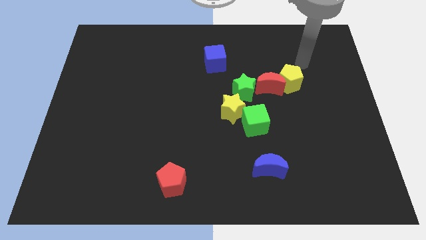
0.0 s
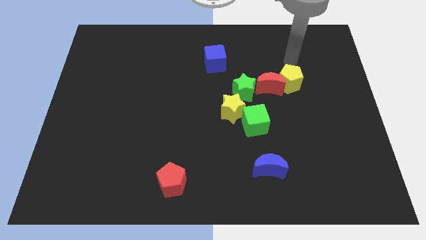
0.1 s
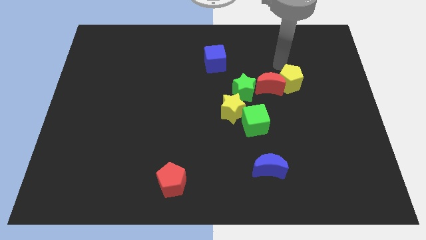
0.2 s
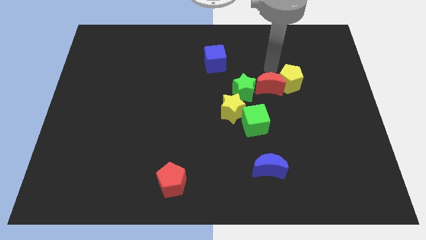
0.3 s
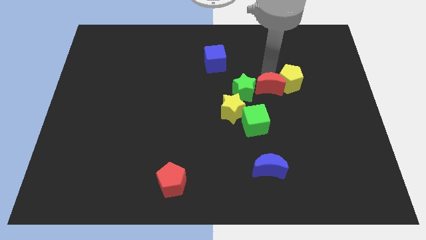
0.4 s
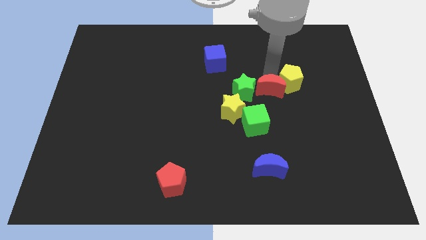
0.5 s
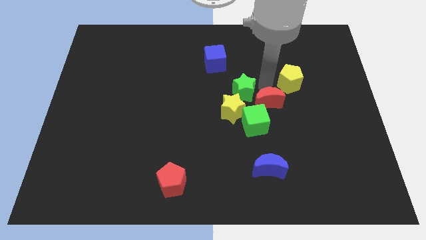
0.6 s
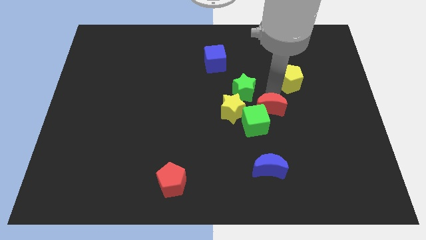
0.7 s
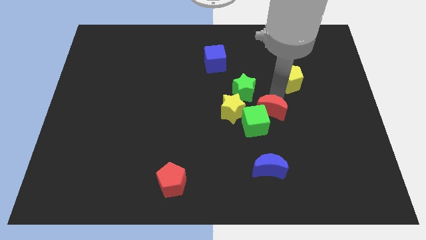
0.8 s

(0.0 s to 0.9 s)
move the yellow pentagon away from the red moon

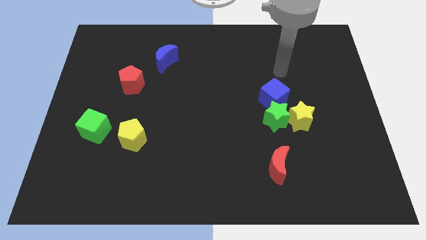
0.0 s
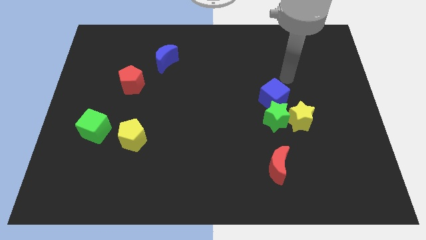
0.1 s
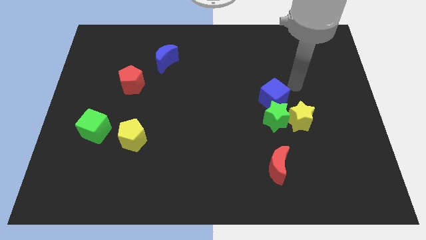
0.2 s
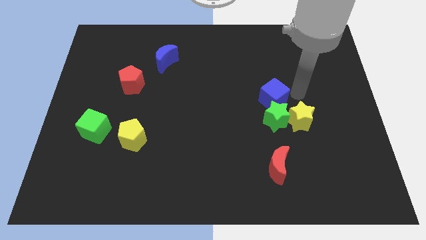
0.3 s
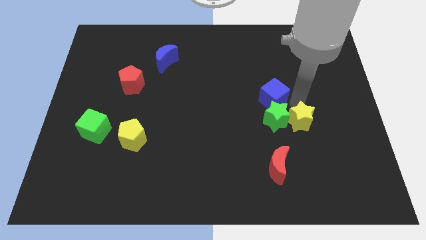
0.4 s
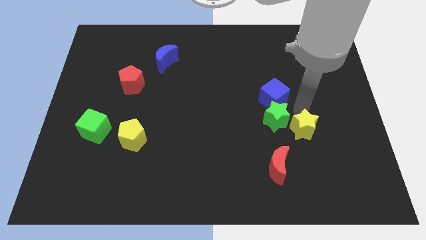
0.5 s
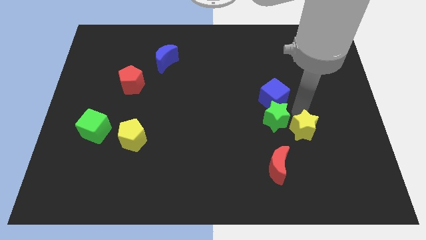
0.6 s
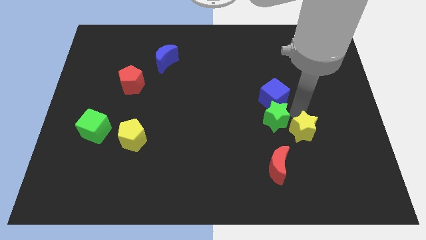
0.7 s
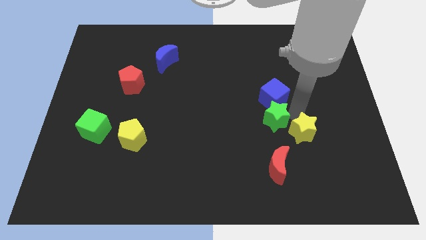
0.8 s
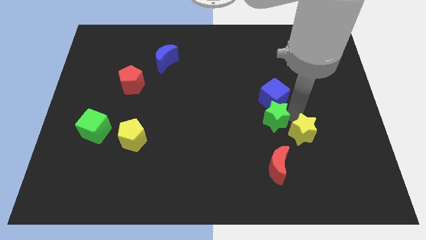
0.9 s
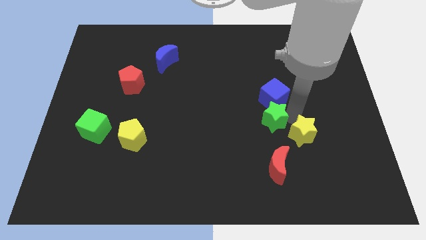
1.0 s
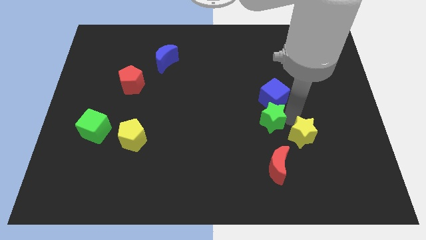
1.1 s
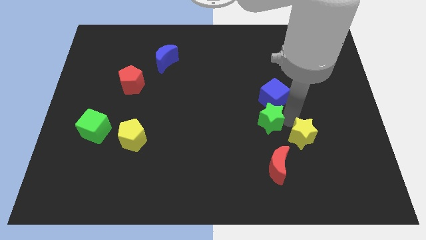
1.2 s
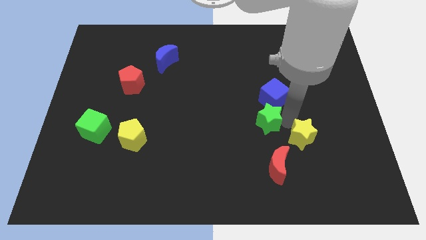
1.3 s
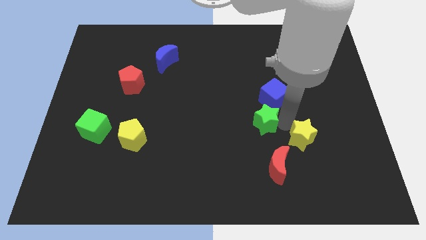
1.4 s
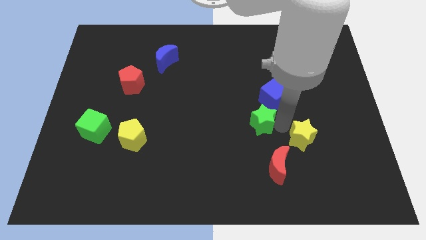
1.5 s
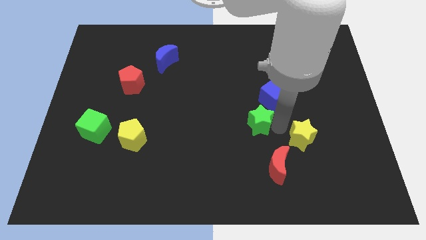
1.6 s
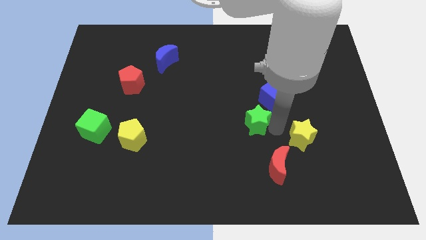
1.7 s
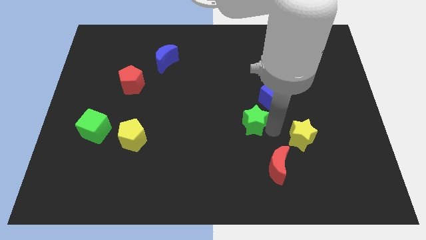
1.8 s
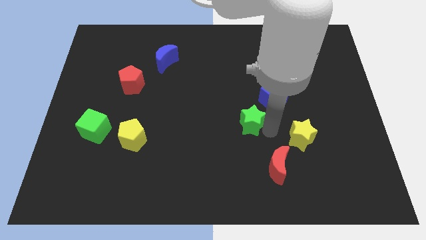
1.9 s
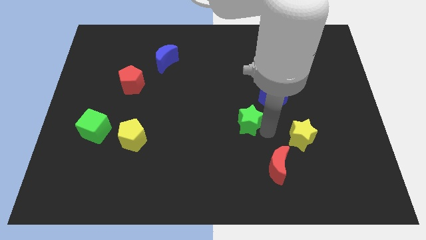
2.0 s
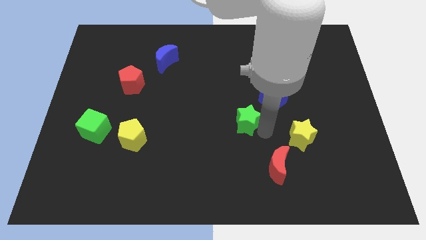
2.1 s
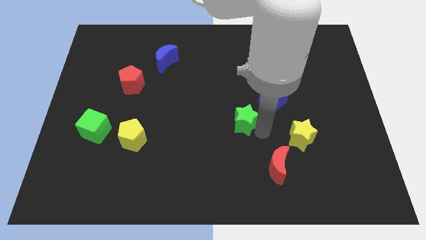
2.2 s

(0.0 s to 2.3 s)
pull the green star apart from the yellow star and blue cube

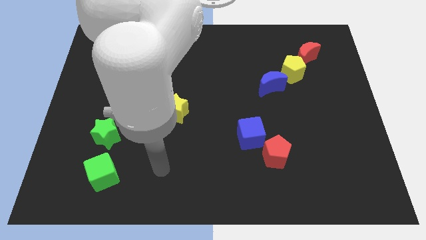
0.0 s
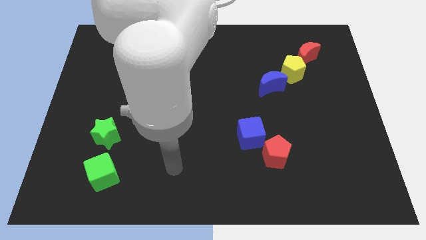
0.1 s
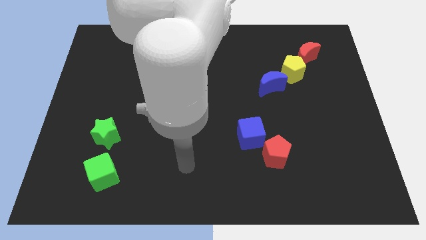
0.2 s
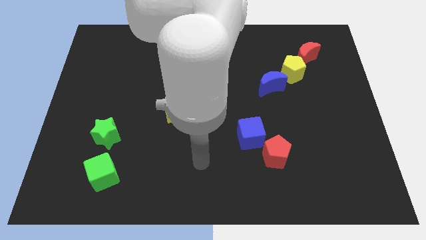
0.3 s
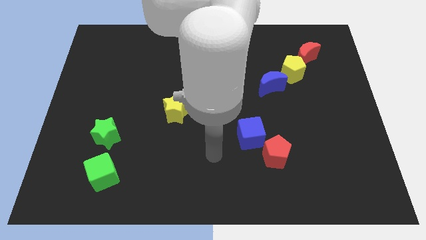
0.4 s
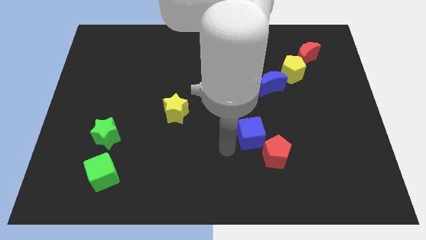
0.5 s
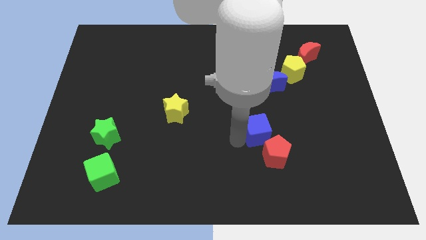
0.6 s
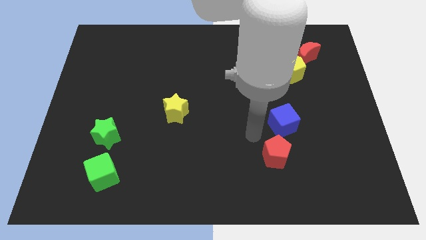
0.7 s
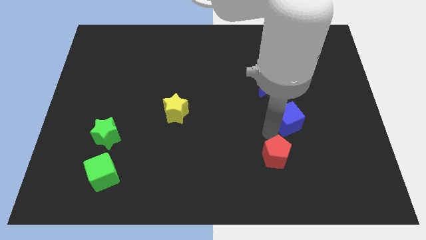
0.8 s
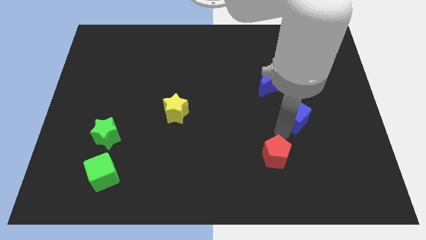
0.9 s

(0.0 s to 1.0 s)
pull the red pentagon apart from the blue cube

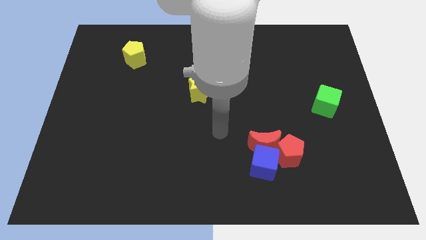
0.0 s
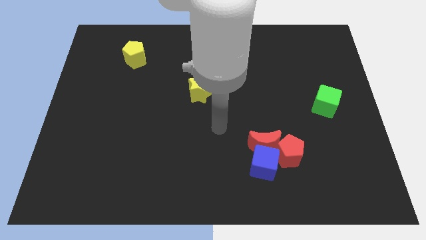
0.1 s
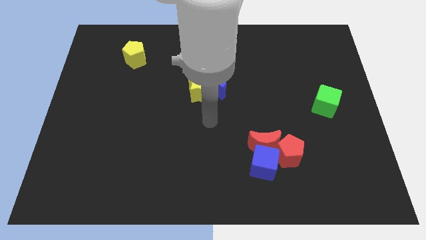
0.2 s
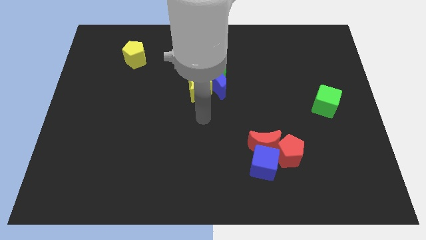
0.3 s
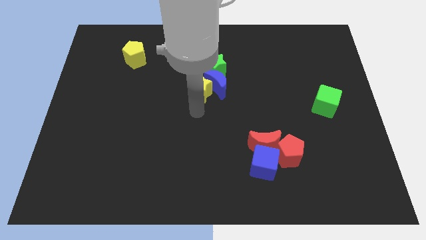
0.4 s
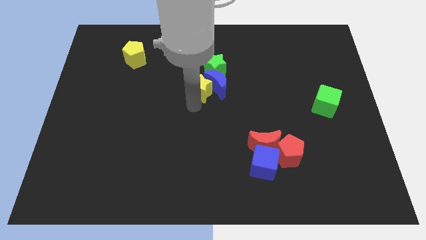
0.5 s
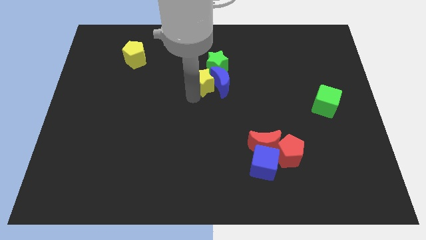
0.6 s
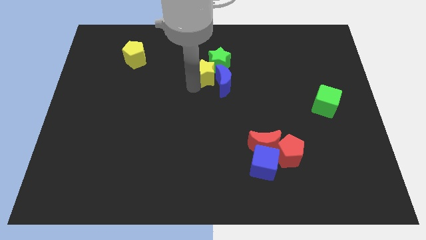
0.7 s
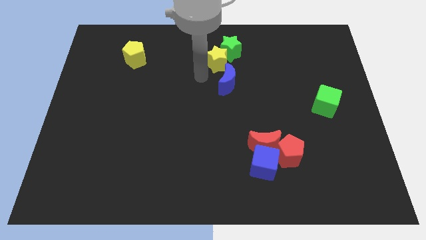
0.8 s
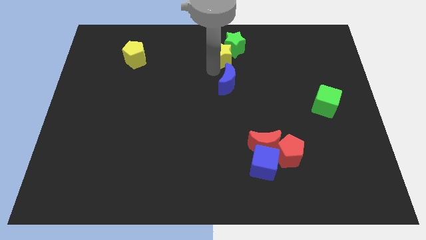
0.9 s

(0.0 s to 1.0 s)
pull the blue moon apart from the yellow star and green star

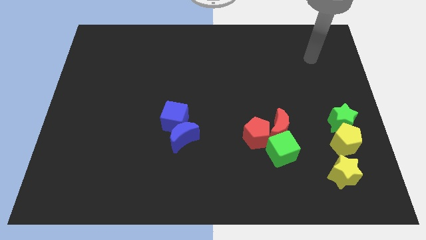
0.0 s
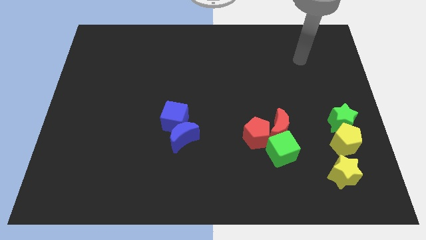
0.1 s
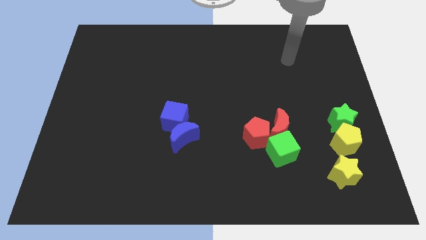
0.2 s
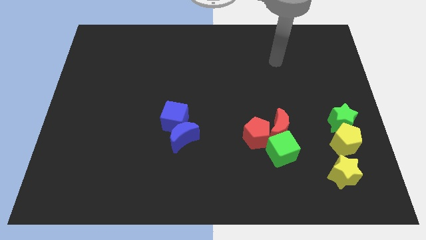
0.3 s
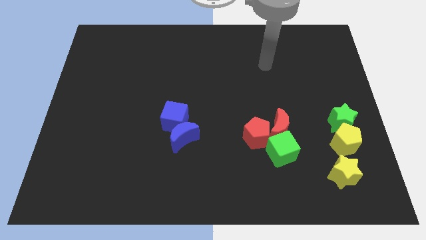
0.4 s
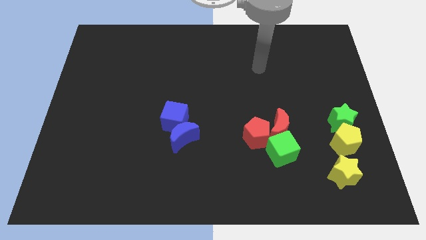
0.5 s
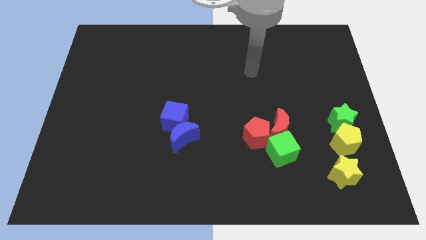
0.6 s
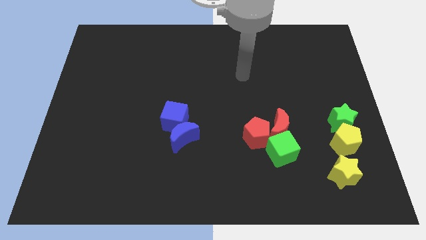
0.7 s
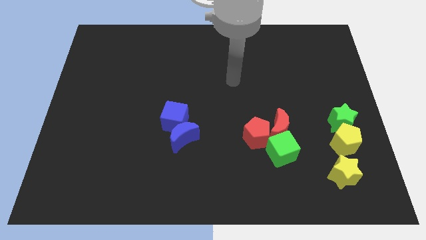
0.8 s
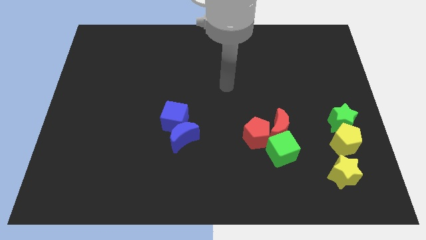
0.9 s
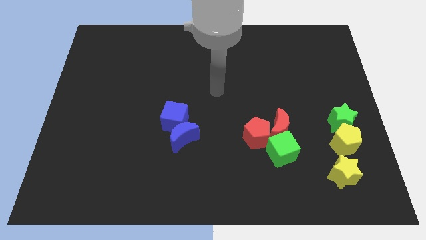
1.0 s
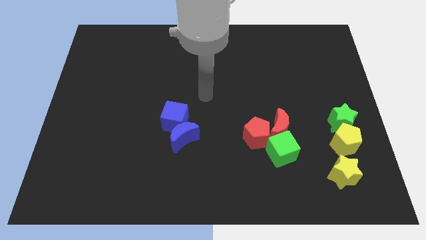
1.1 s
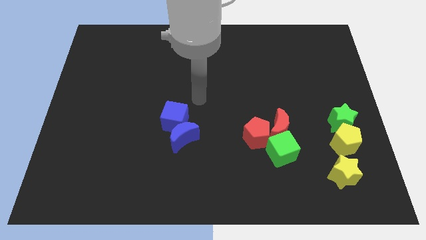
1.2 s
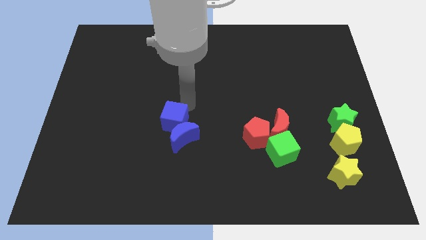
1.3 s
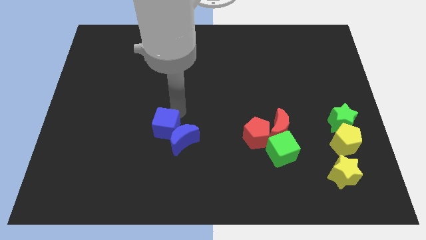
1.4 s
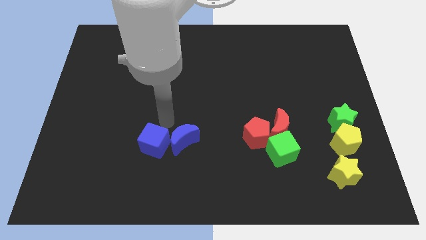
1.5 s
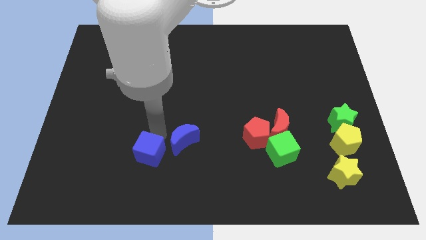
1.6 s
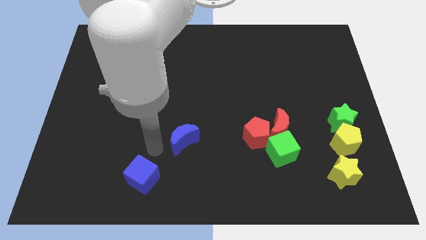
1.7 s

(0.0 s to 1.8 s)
pull the blue moon apart from the blue cube

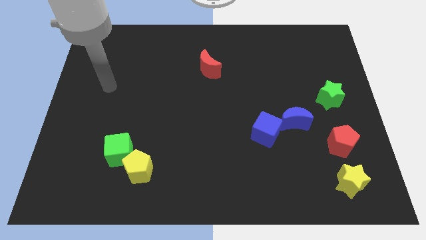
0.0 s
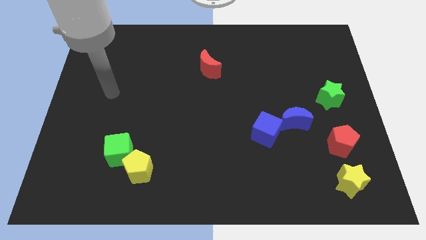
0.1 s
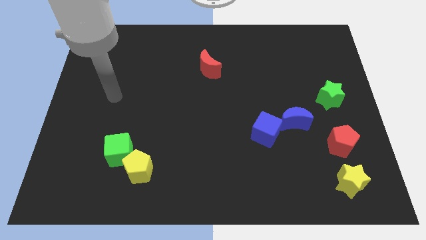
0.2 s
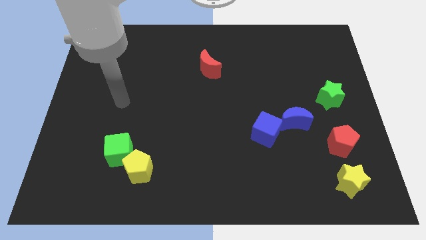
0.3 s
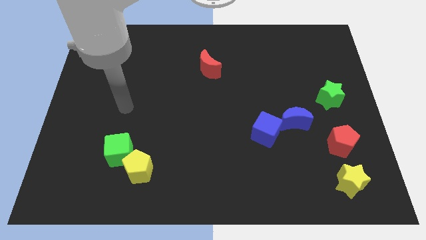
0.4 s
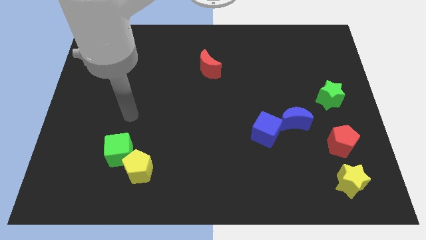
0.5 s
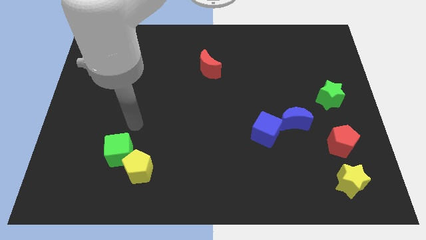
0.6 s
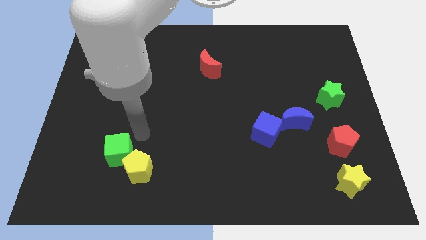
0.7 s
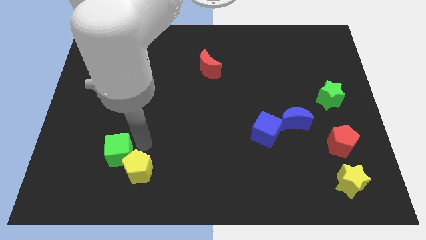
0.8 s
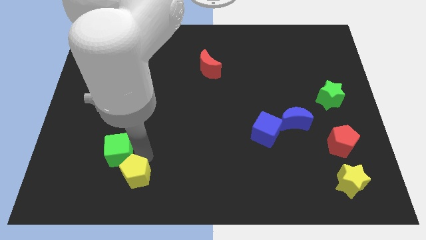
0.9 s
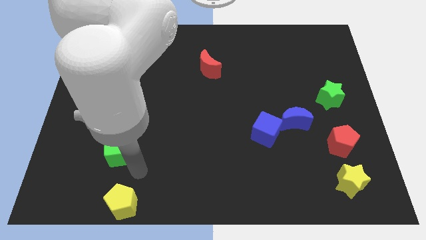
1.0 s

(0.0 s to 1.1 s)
pull the green cube apart from the yellow pentagon

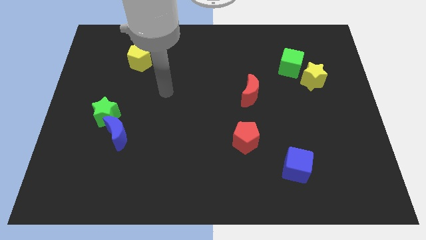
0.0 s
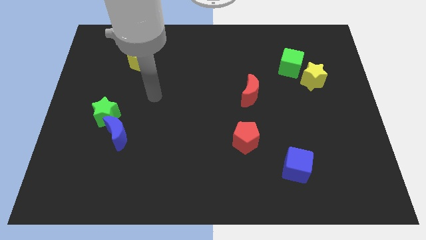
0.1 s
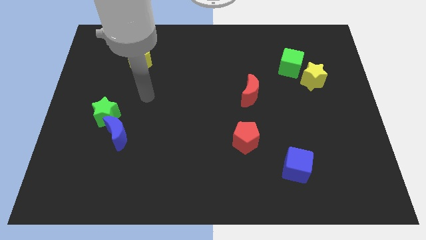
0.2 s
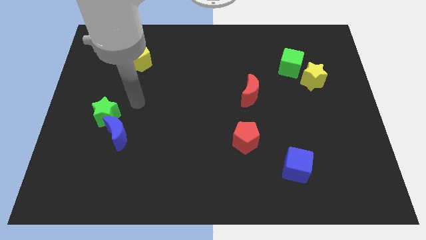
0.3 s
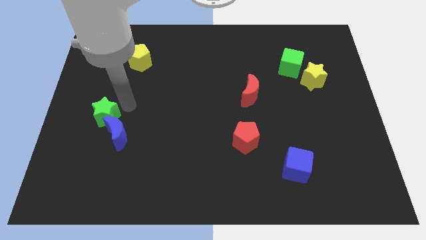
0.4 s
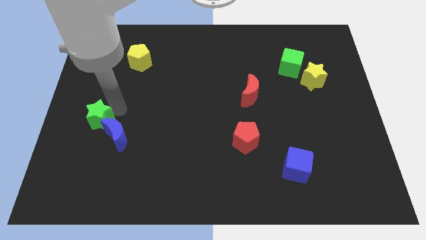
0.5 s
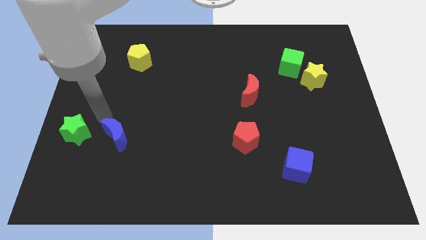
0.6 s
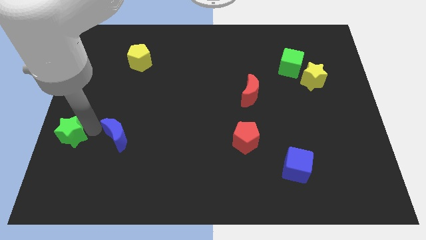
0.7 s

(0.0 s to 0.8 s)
separate the blue moon from the green star

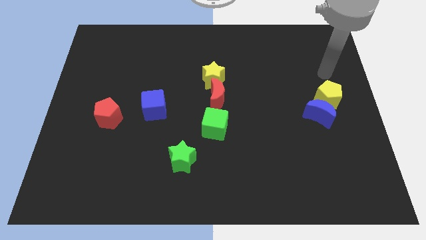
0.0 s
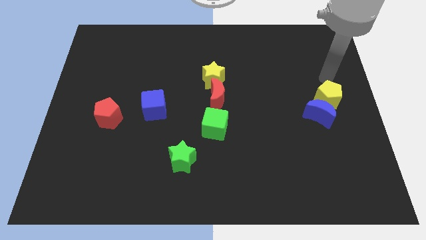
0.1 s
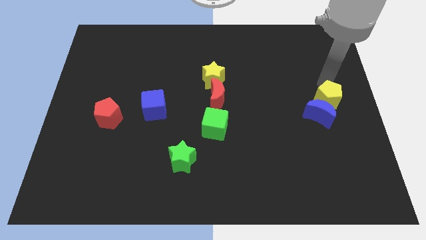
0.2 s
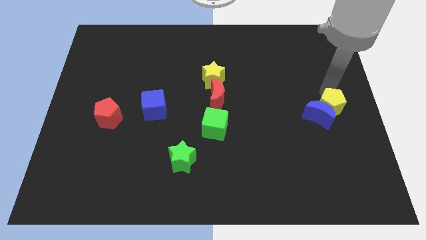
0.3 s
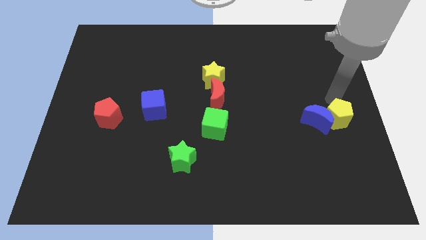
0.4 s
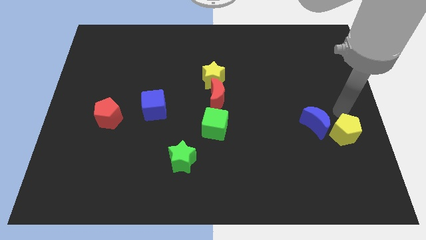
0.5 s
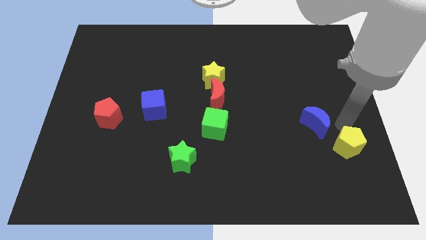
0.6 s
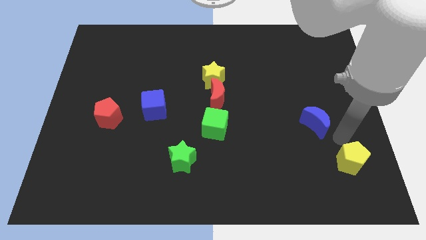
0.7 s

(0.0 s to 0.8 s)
move the blue moon away from the yellow pentagon
